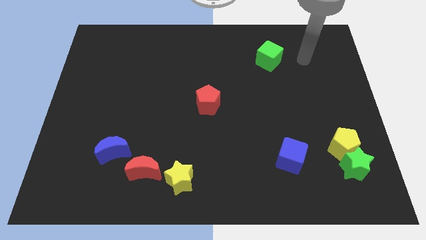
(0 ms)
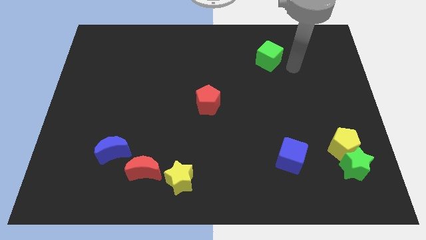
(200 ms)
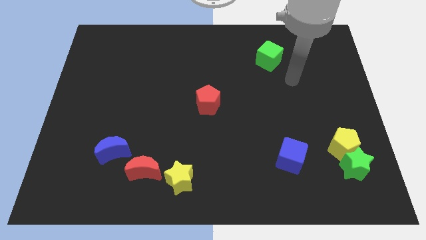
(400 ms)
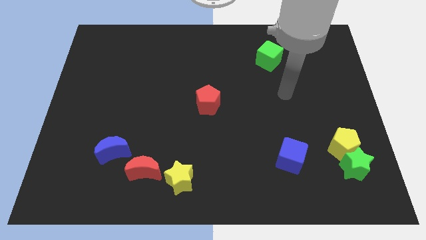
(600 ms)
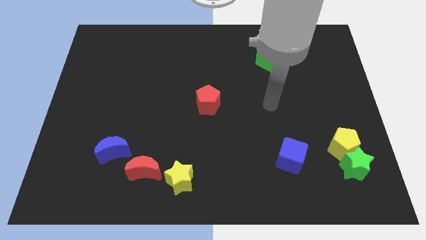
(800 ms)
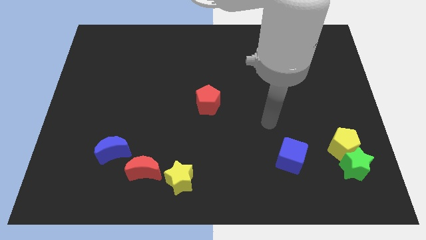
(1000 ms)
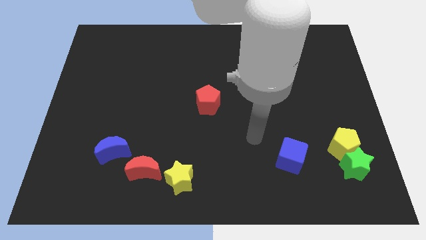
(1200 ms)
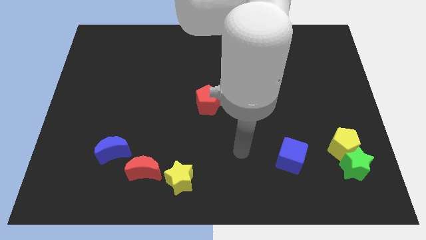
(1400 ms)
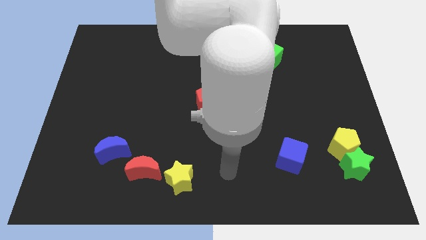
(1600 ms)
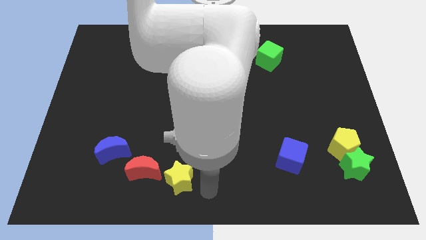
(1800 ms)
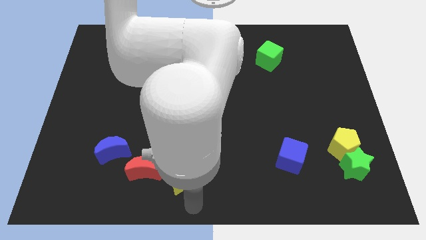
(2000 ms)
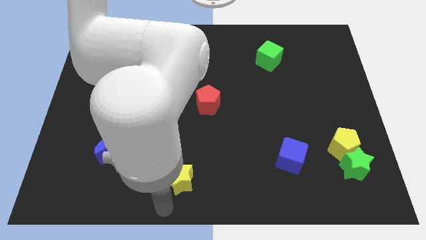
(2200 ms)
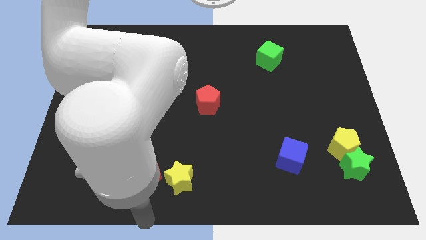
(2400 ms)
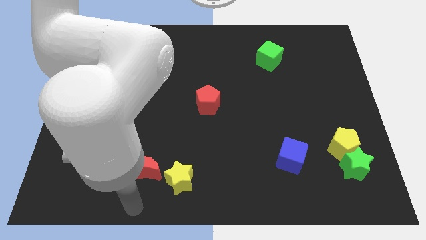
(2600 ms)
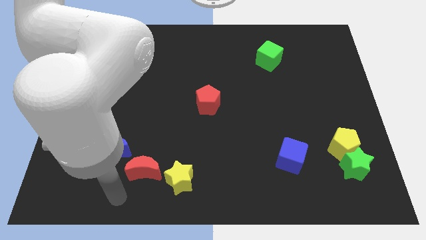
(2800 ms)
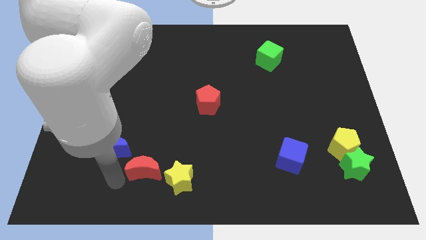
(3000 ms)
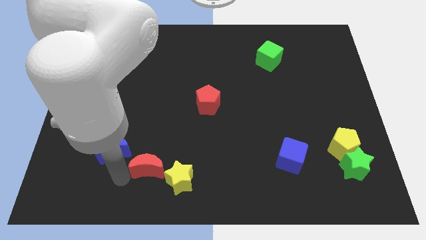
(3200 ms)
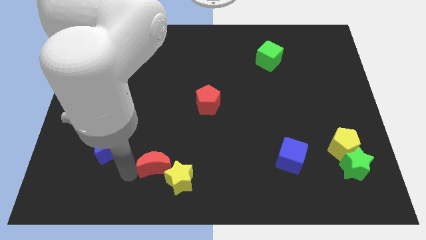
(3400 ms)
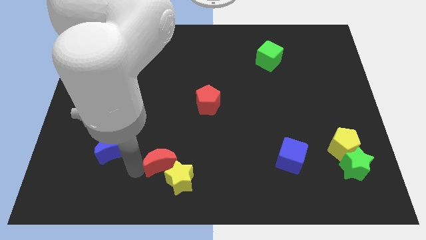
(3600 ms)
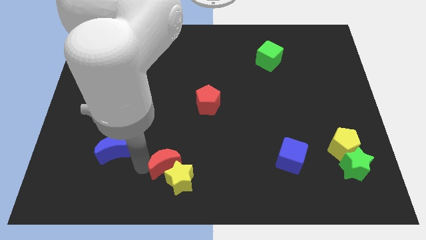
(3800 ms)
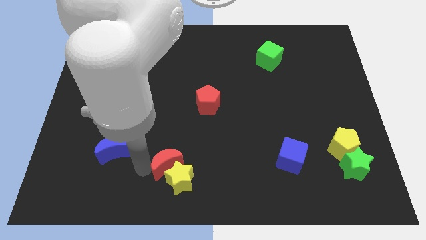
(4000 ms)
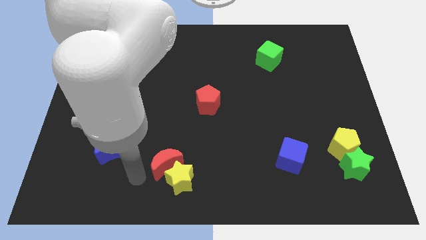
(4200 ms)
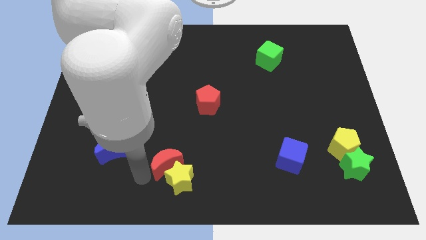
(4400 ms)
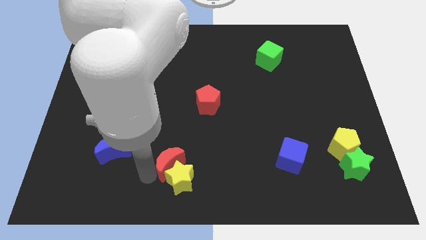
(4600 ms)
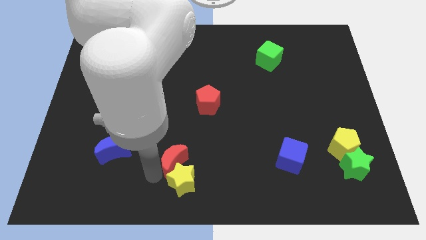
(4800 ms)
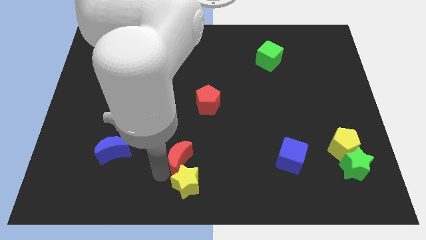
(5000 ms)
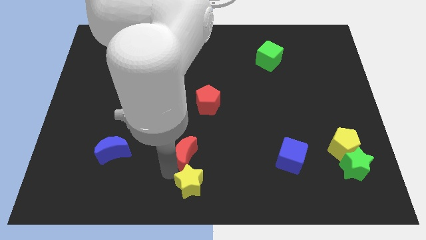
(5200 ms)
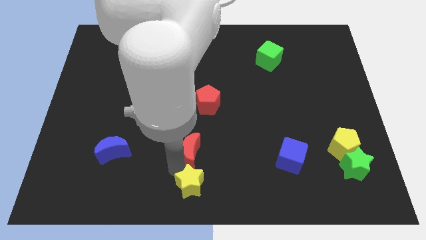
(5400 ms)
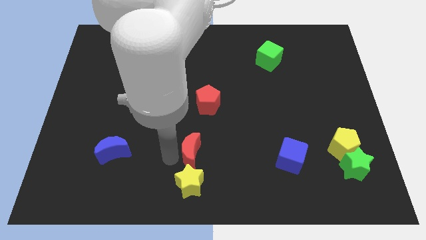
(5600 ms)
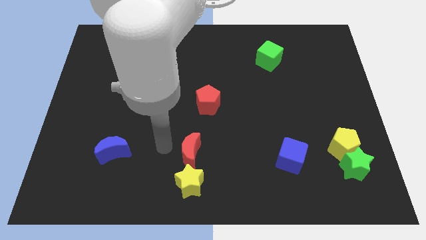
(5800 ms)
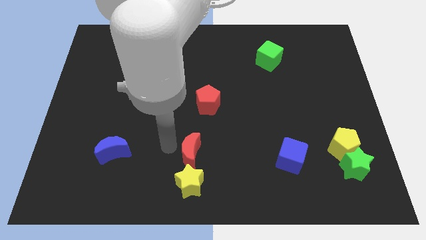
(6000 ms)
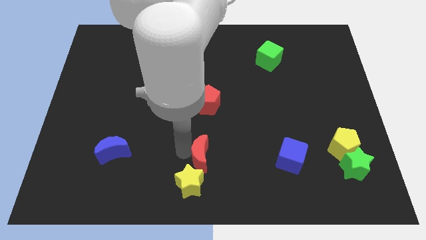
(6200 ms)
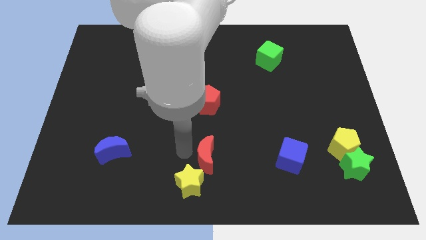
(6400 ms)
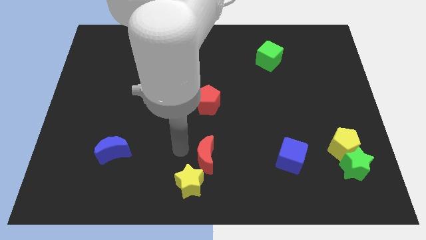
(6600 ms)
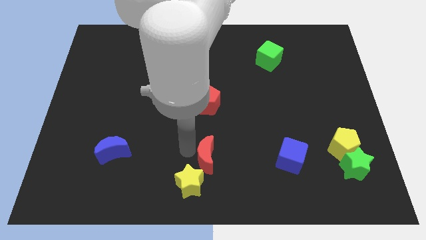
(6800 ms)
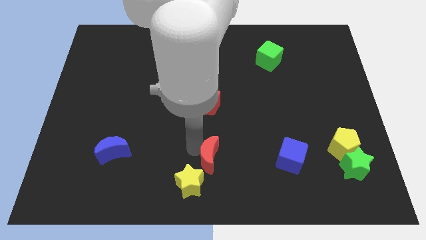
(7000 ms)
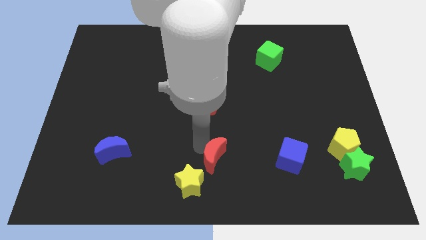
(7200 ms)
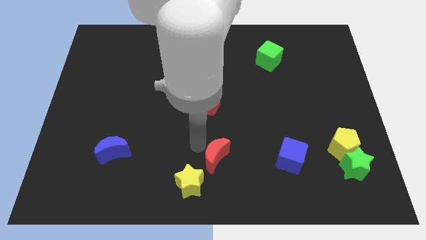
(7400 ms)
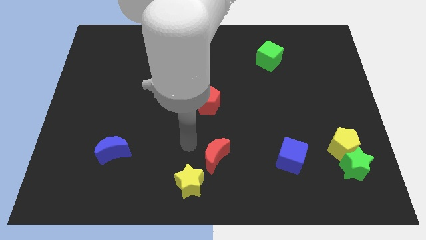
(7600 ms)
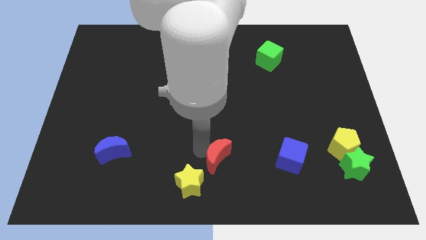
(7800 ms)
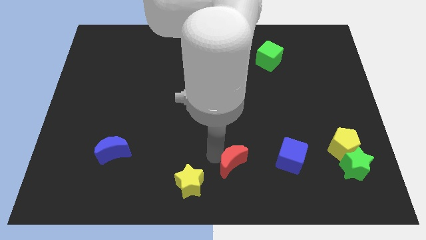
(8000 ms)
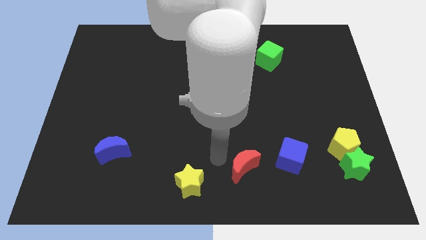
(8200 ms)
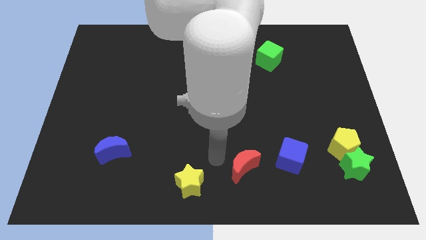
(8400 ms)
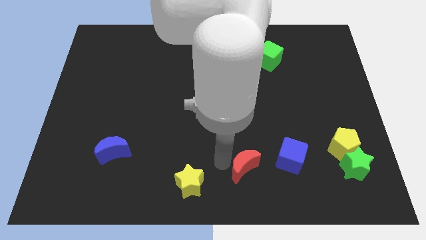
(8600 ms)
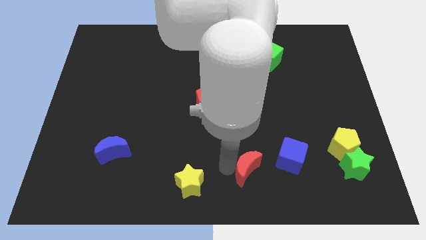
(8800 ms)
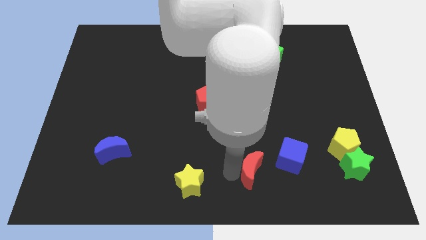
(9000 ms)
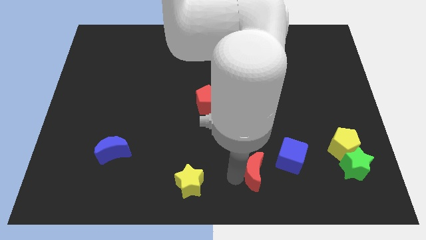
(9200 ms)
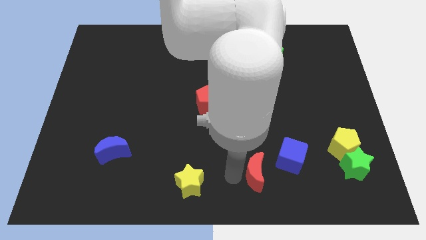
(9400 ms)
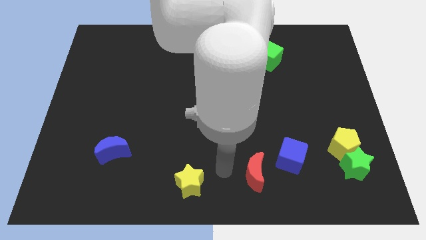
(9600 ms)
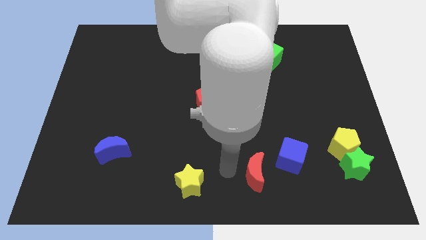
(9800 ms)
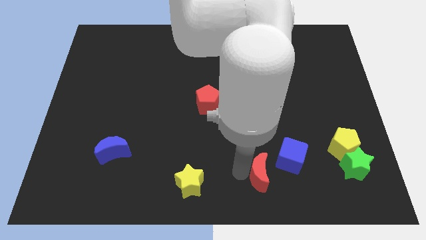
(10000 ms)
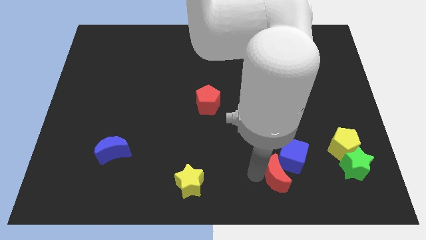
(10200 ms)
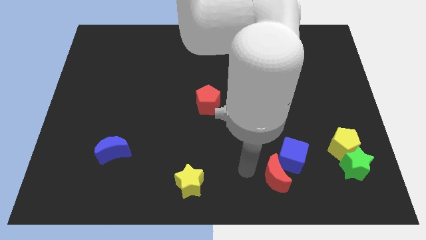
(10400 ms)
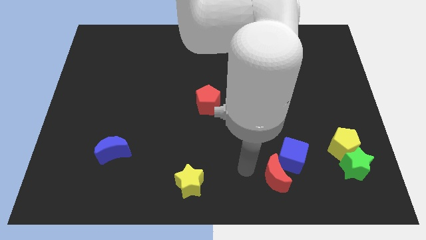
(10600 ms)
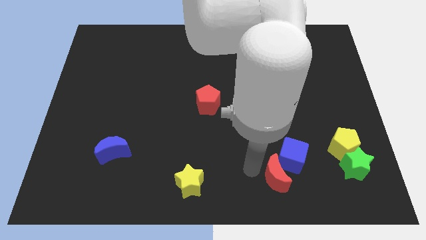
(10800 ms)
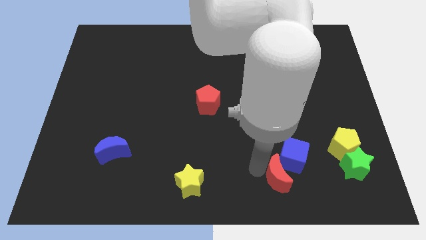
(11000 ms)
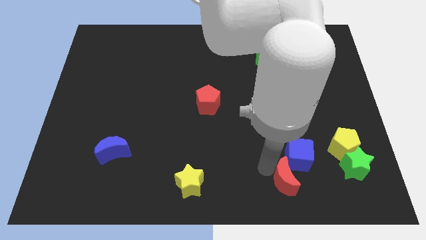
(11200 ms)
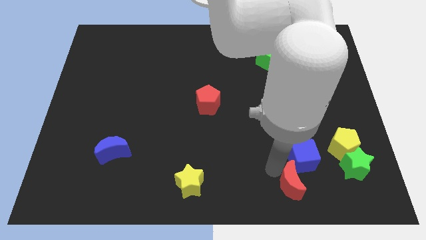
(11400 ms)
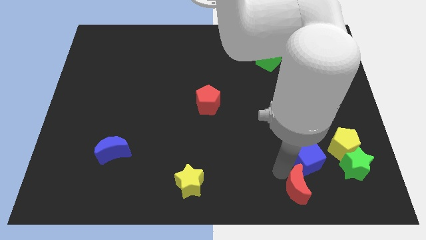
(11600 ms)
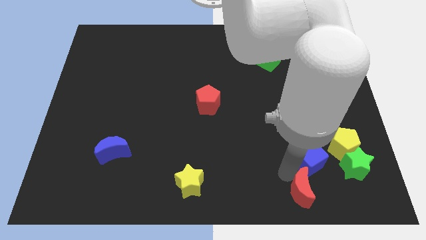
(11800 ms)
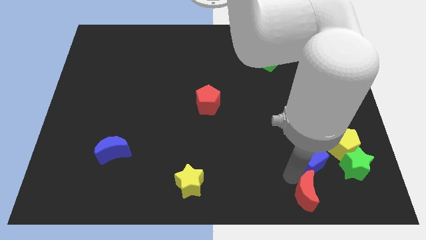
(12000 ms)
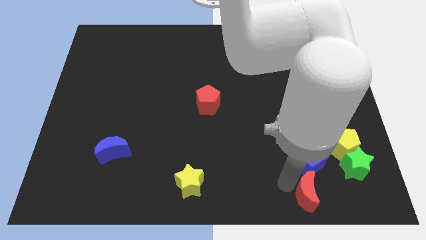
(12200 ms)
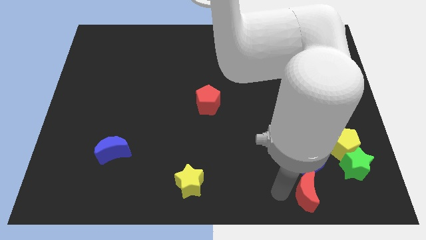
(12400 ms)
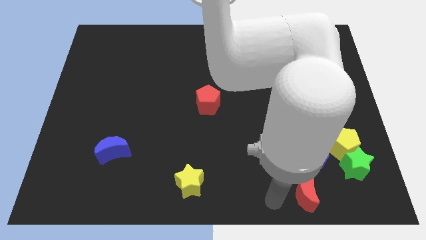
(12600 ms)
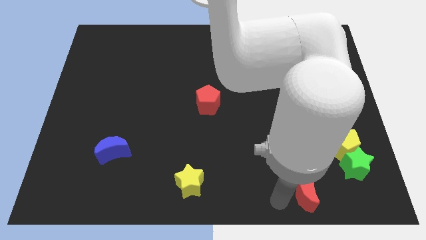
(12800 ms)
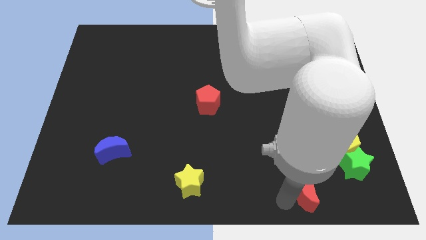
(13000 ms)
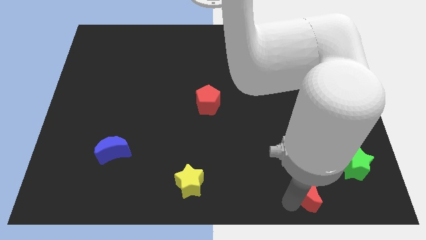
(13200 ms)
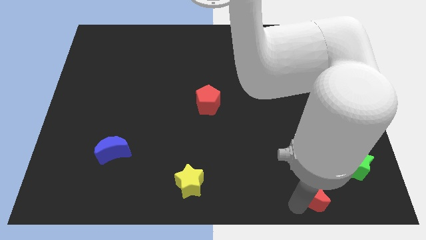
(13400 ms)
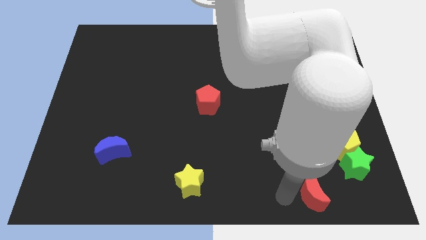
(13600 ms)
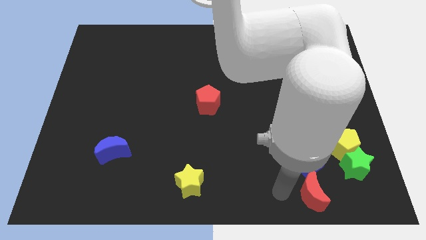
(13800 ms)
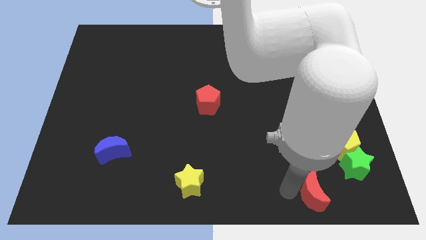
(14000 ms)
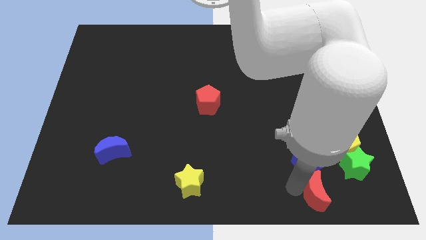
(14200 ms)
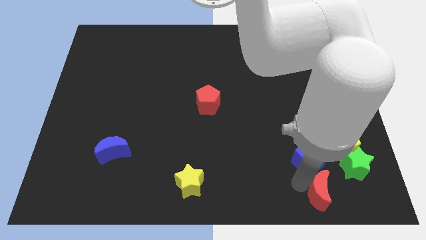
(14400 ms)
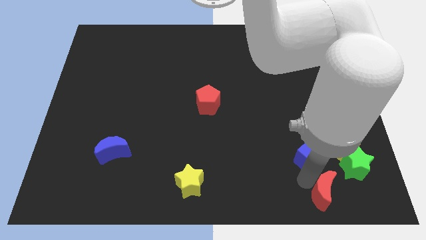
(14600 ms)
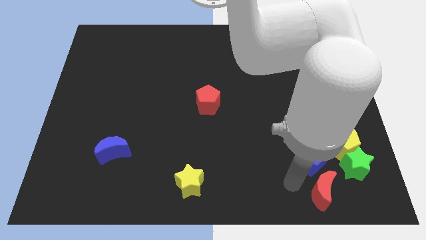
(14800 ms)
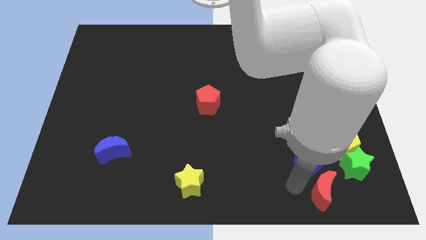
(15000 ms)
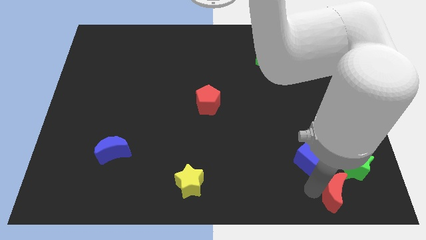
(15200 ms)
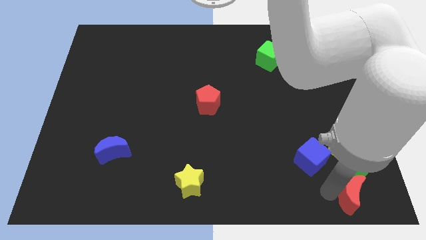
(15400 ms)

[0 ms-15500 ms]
push the red moon to the bottom right
